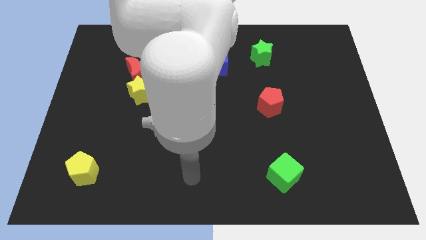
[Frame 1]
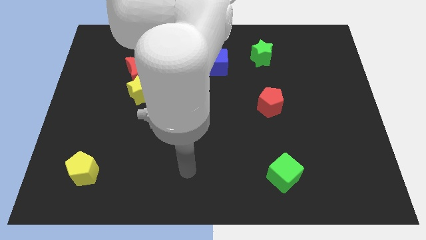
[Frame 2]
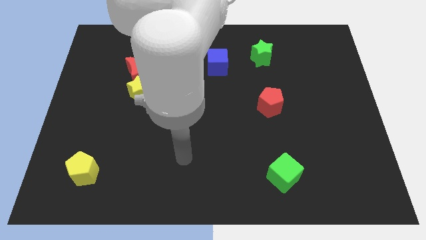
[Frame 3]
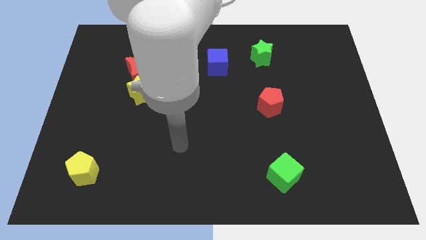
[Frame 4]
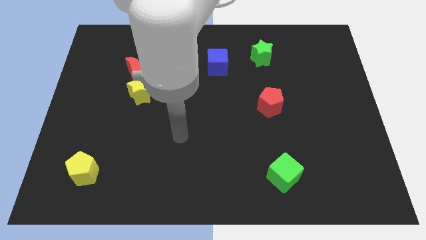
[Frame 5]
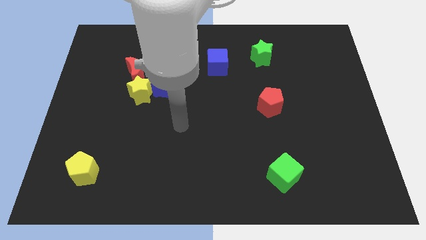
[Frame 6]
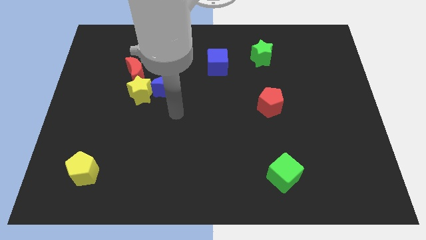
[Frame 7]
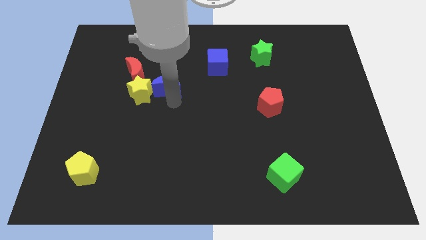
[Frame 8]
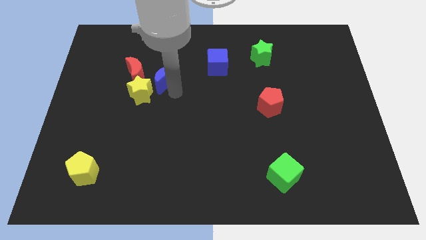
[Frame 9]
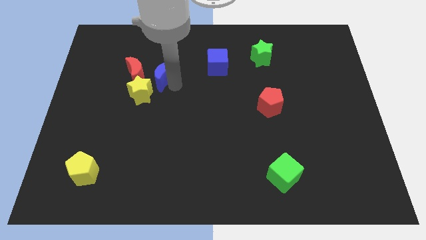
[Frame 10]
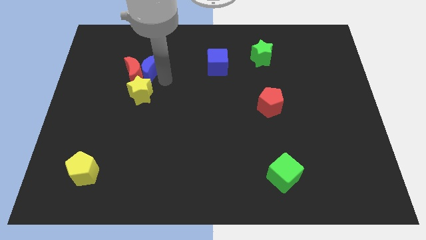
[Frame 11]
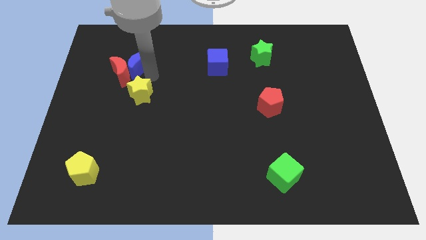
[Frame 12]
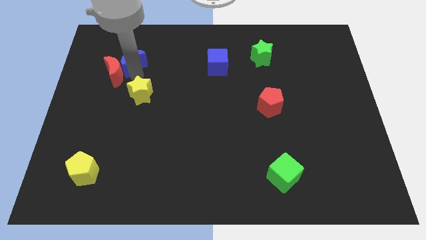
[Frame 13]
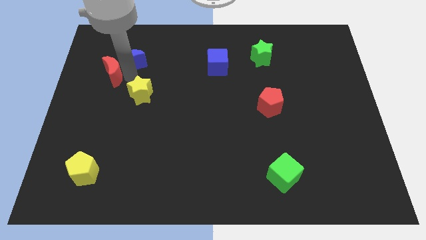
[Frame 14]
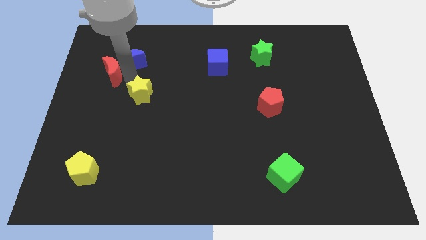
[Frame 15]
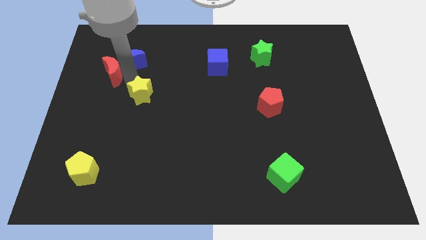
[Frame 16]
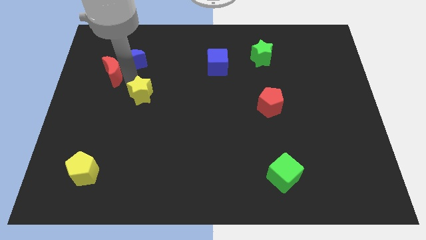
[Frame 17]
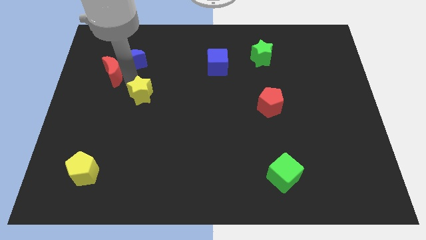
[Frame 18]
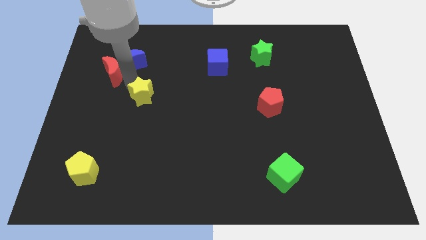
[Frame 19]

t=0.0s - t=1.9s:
separate the yellow star from the red moon and blue moon

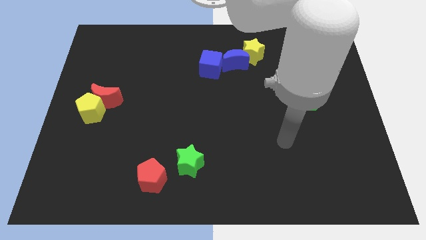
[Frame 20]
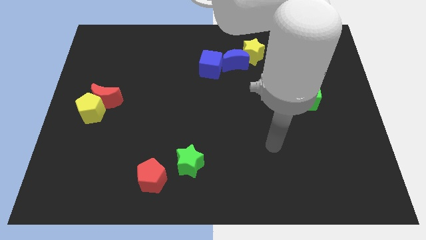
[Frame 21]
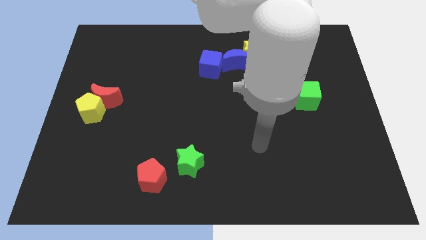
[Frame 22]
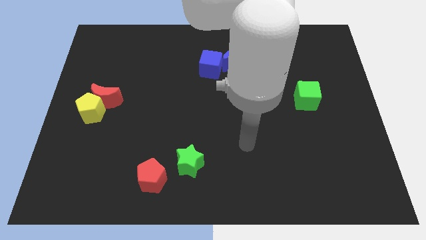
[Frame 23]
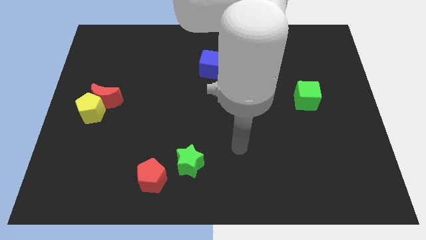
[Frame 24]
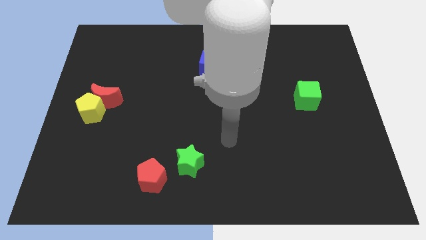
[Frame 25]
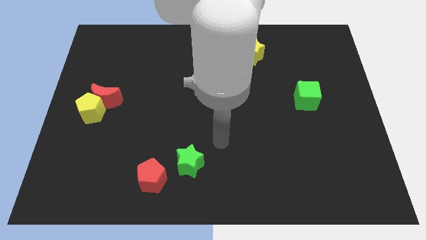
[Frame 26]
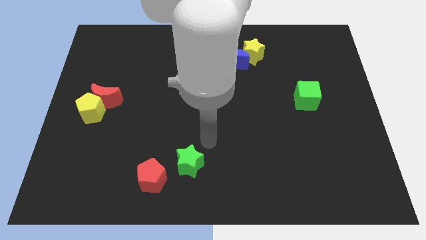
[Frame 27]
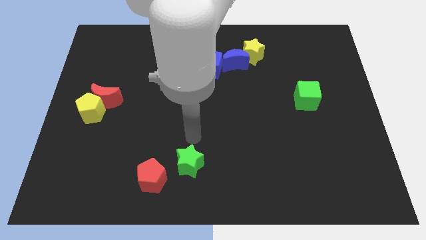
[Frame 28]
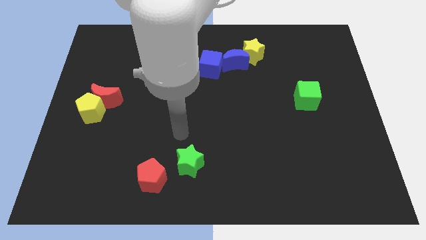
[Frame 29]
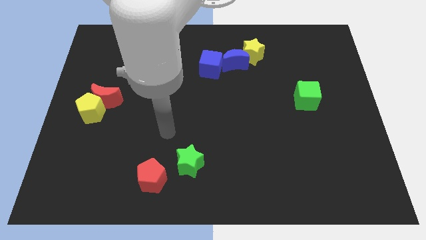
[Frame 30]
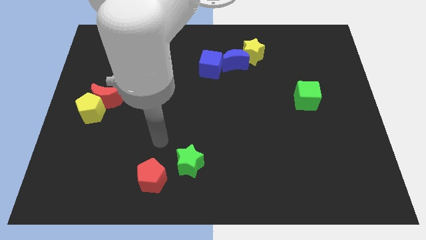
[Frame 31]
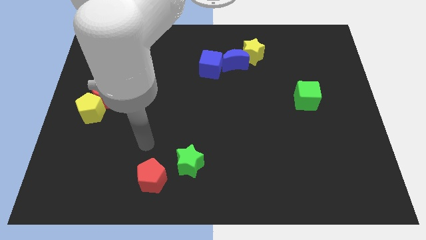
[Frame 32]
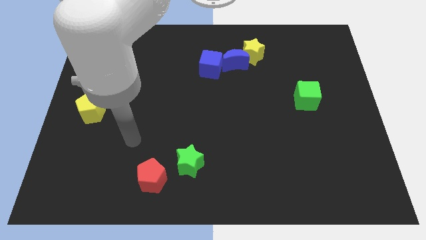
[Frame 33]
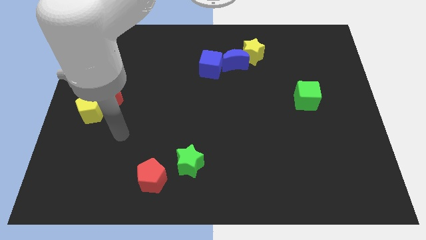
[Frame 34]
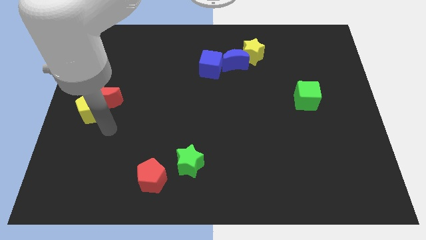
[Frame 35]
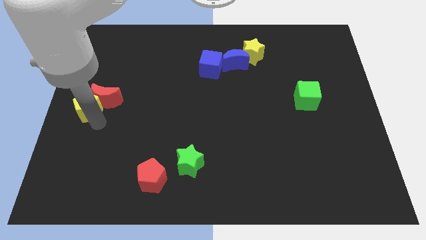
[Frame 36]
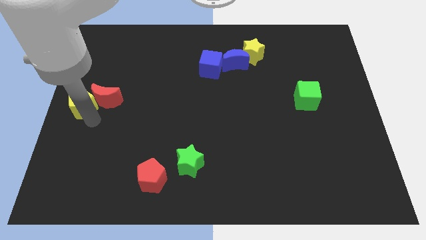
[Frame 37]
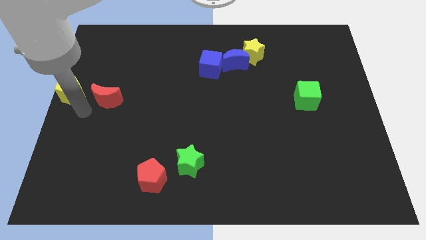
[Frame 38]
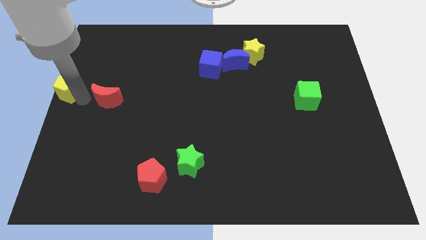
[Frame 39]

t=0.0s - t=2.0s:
pull the red moon apart from the yellow pentagon

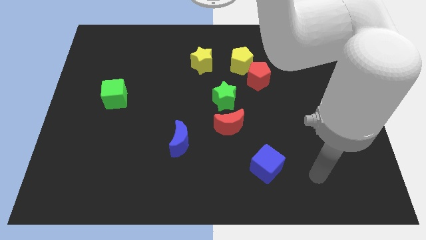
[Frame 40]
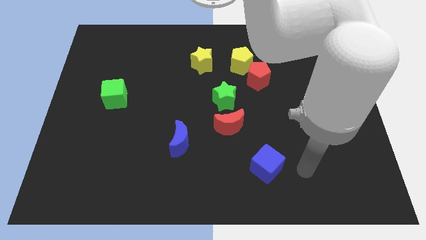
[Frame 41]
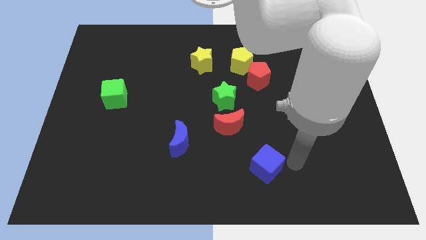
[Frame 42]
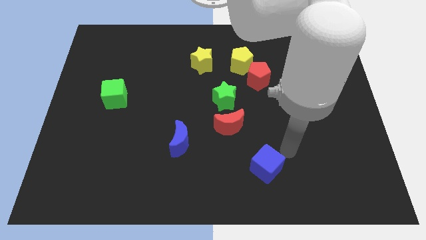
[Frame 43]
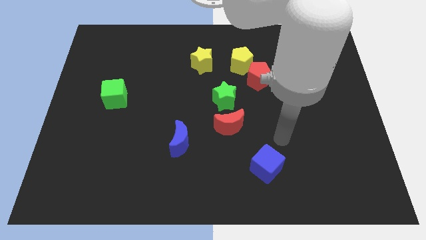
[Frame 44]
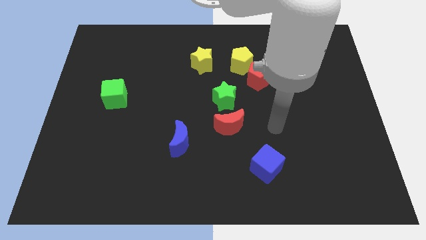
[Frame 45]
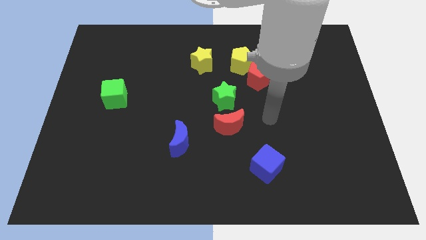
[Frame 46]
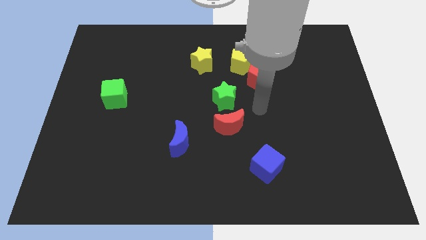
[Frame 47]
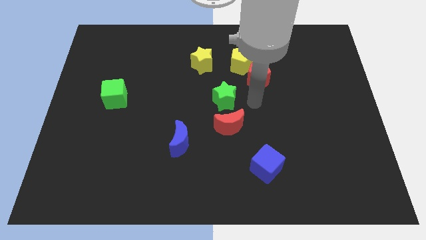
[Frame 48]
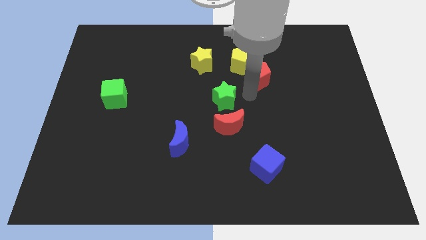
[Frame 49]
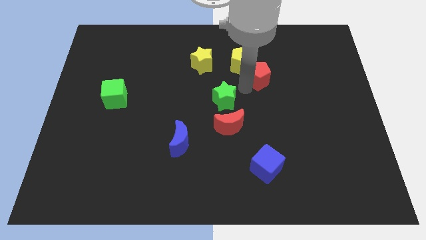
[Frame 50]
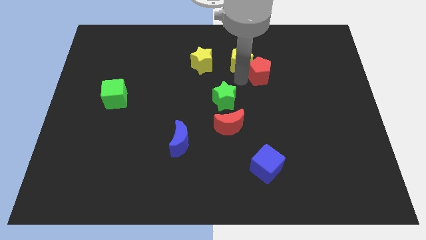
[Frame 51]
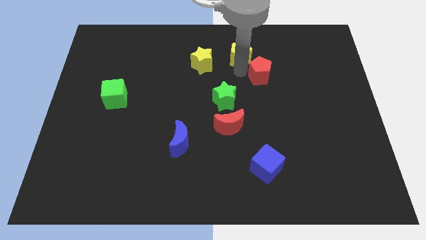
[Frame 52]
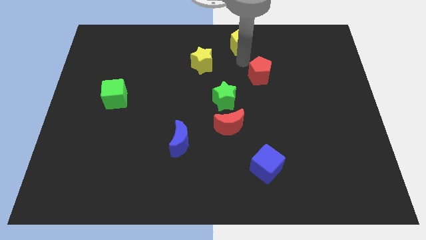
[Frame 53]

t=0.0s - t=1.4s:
separate the red pentagon from the yellow pentagon

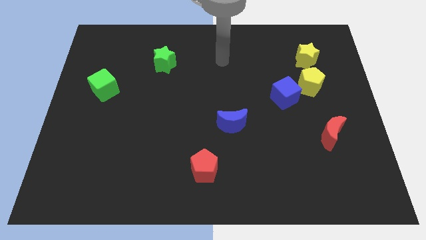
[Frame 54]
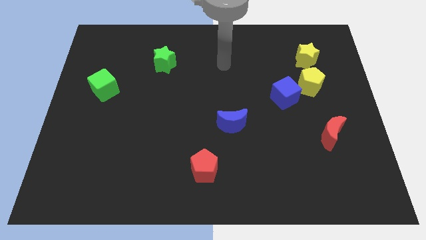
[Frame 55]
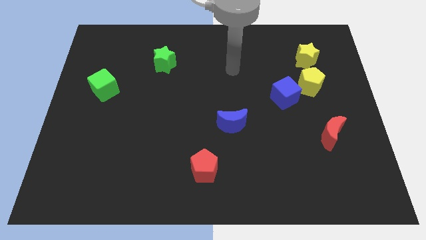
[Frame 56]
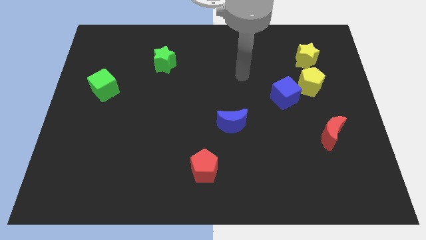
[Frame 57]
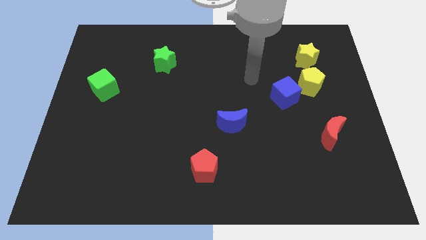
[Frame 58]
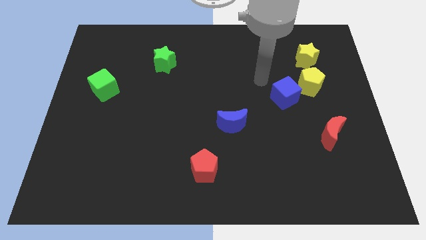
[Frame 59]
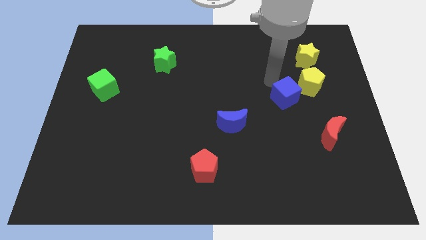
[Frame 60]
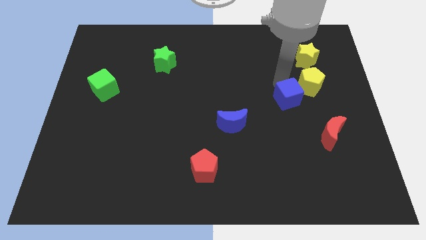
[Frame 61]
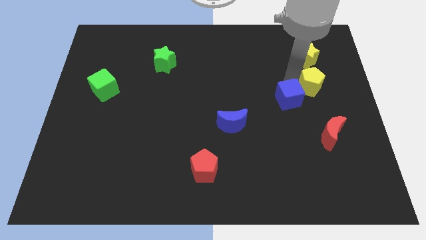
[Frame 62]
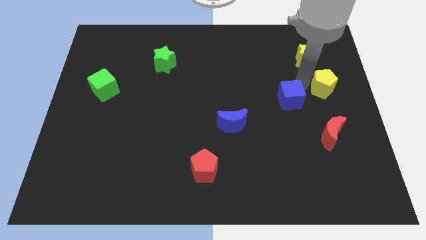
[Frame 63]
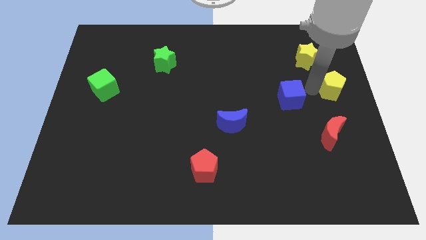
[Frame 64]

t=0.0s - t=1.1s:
pull the blue cube apart from the yellow pentagon

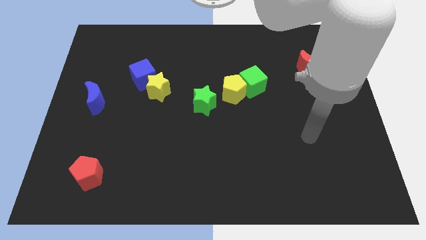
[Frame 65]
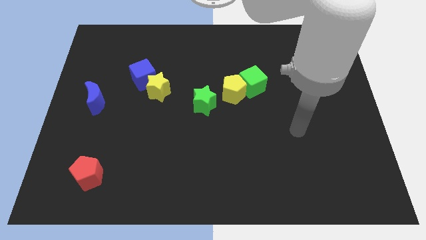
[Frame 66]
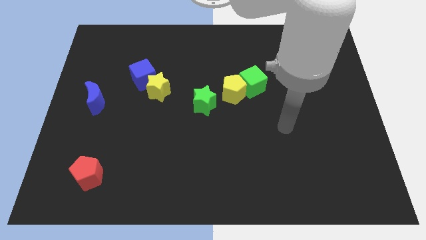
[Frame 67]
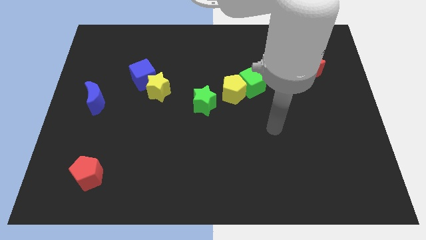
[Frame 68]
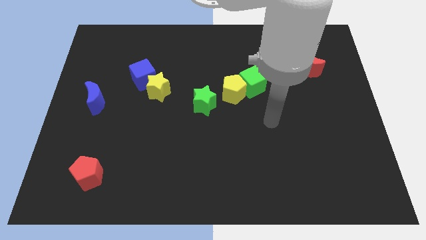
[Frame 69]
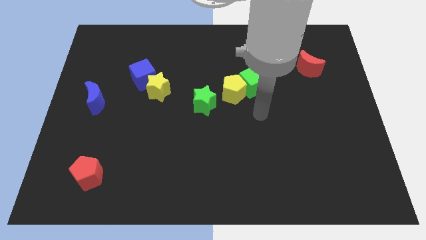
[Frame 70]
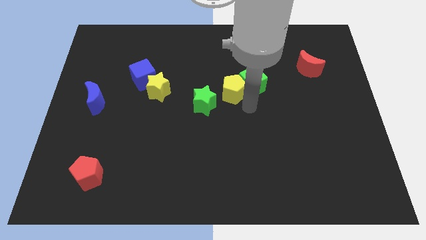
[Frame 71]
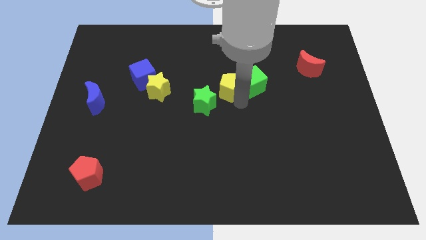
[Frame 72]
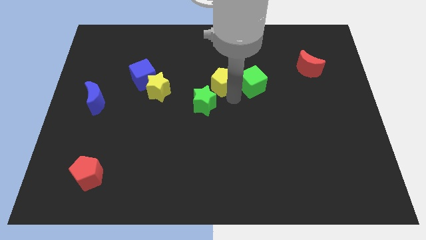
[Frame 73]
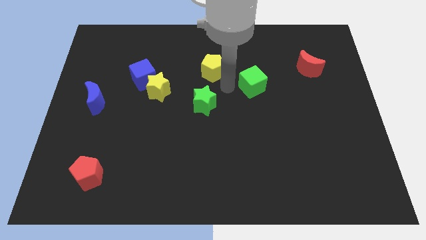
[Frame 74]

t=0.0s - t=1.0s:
separate the green cube from the yellow pentagon

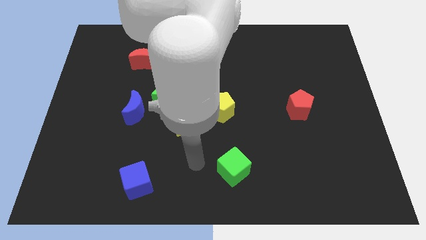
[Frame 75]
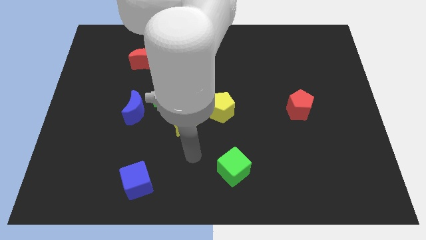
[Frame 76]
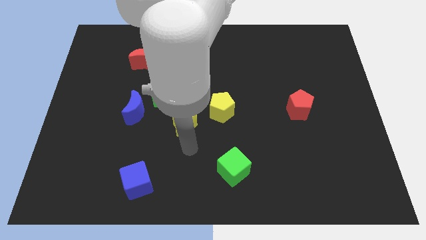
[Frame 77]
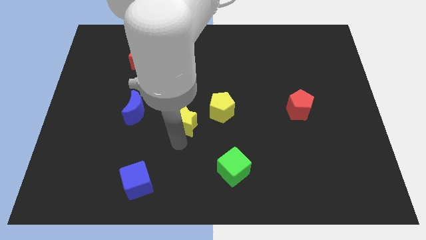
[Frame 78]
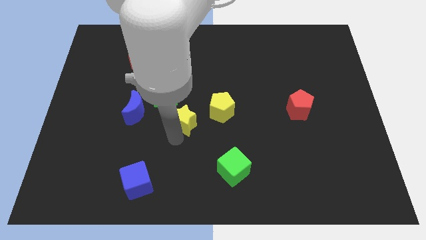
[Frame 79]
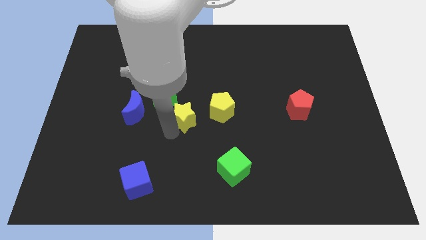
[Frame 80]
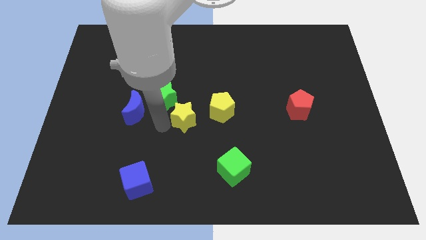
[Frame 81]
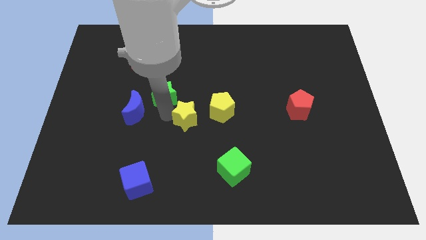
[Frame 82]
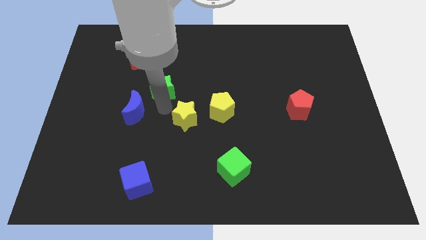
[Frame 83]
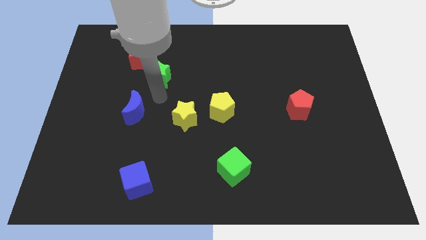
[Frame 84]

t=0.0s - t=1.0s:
separate the blue moon from the green star

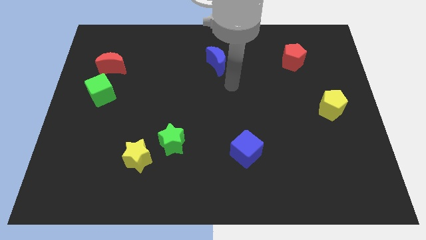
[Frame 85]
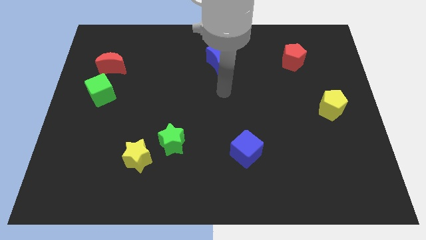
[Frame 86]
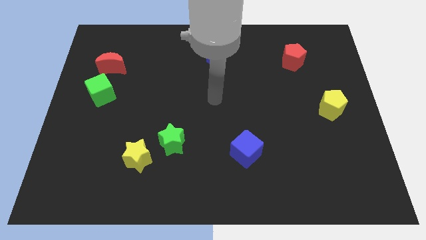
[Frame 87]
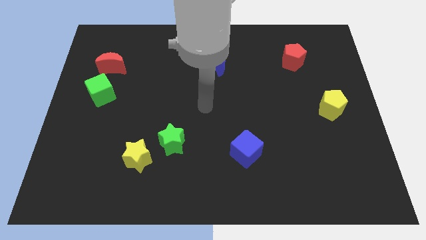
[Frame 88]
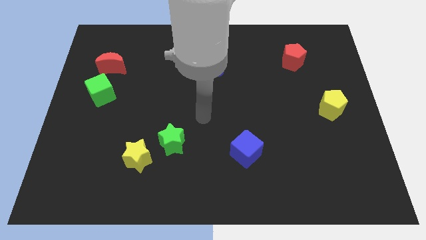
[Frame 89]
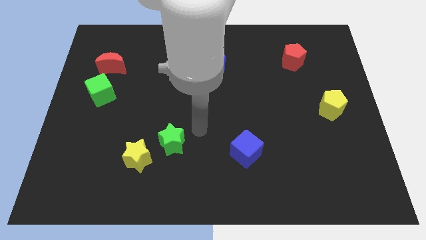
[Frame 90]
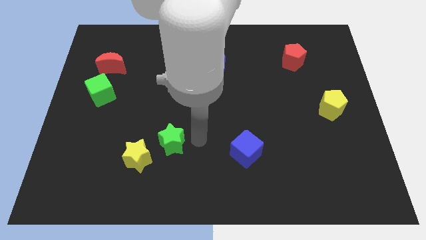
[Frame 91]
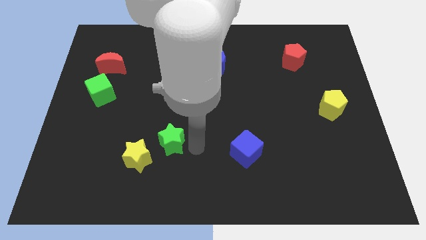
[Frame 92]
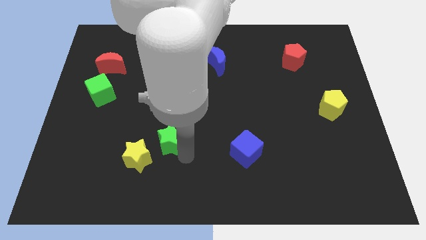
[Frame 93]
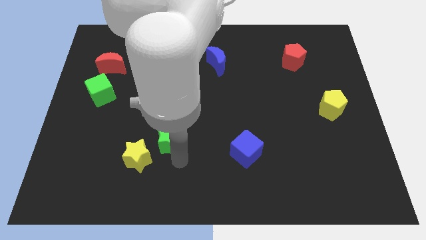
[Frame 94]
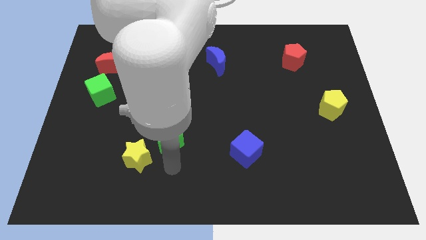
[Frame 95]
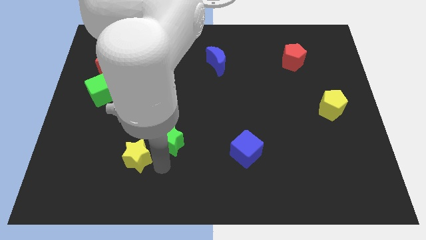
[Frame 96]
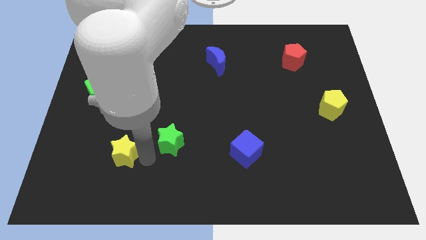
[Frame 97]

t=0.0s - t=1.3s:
move the green star away from the yellow star
